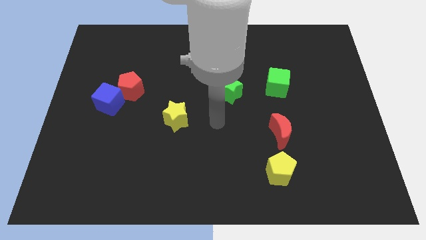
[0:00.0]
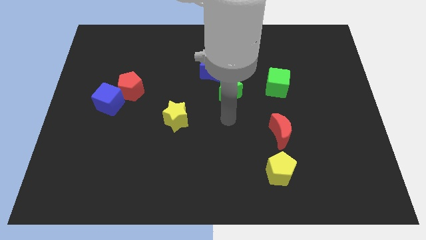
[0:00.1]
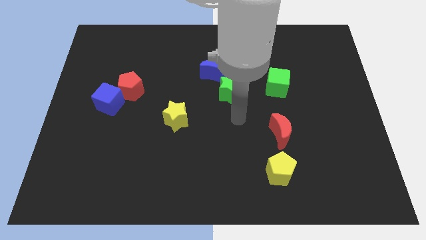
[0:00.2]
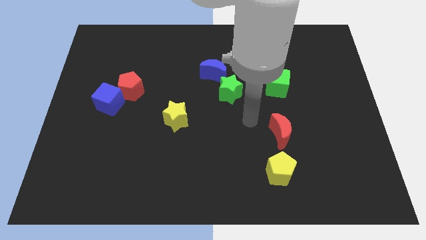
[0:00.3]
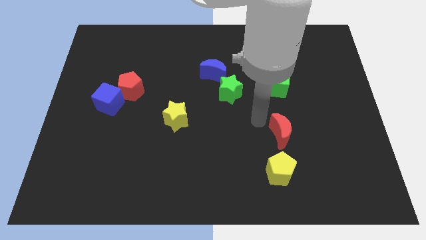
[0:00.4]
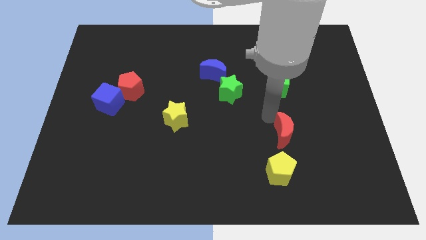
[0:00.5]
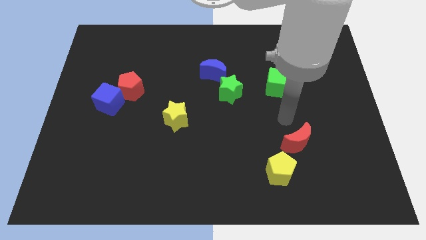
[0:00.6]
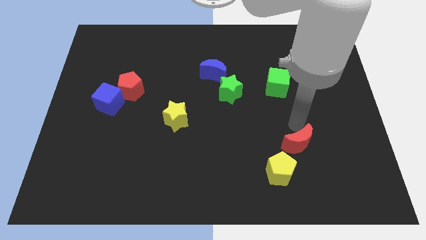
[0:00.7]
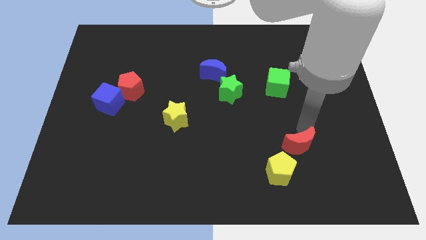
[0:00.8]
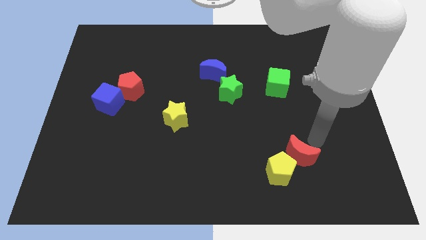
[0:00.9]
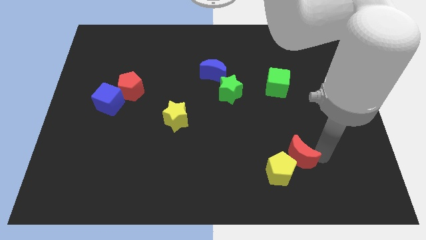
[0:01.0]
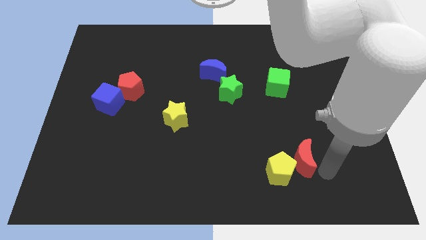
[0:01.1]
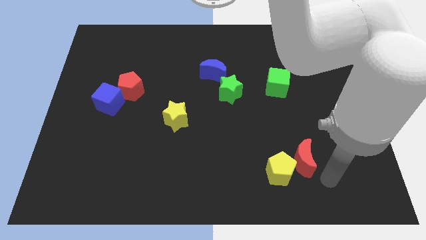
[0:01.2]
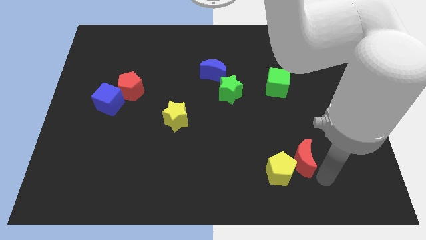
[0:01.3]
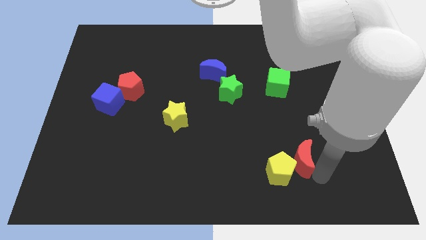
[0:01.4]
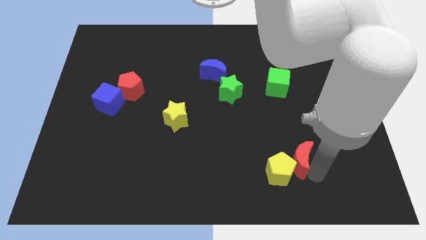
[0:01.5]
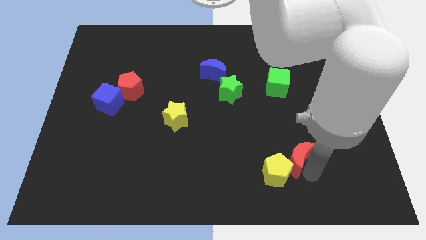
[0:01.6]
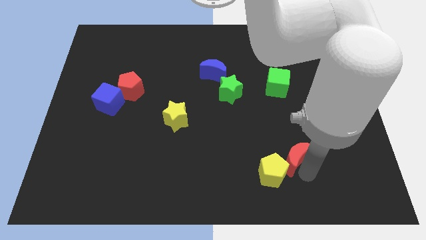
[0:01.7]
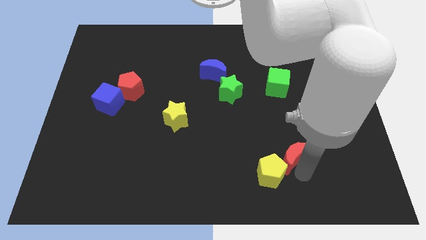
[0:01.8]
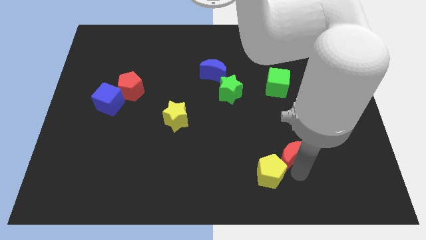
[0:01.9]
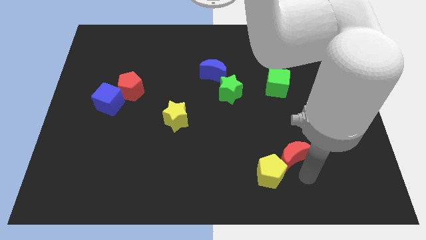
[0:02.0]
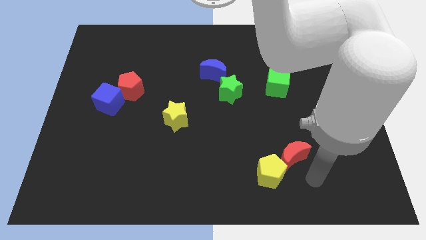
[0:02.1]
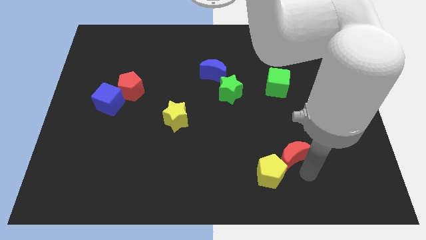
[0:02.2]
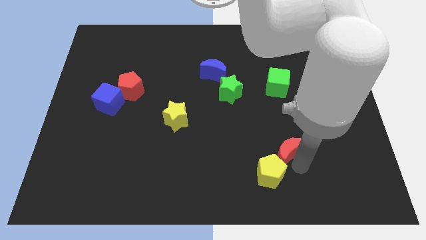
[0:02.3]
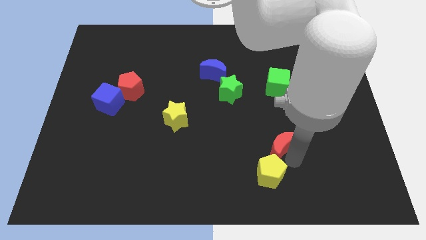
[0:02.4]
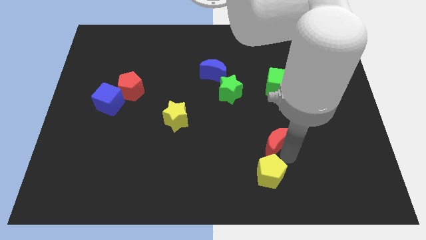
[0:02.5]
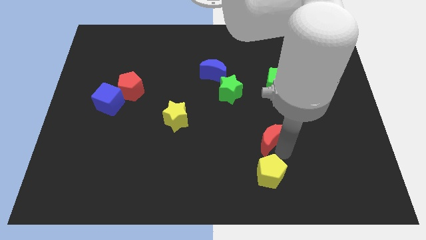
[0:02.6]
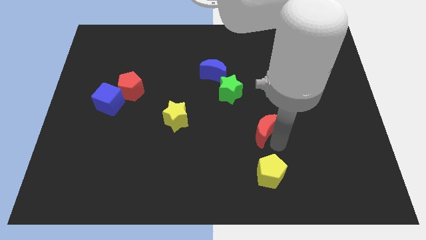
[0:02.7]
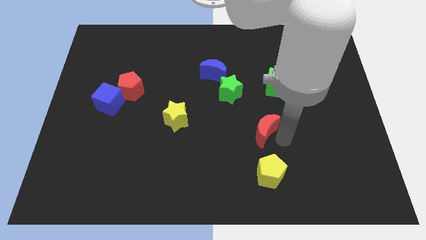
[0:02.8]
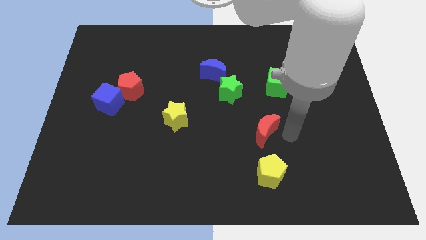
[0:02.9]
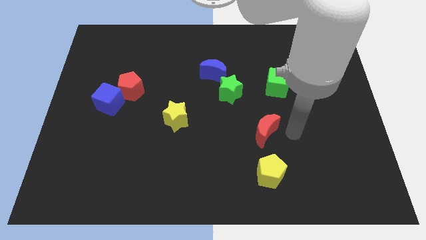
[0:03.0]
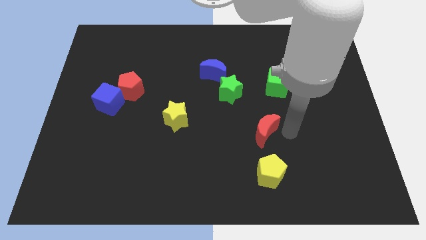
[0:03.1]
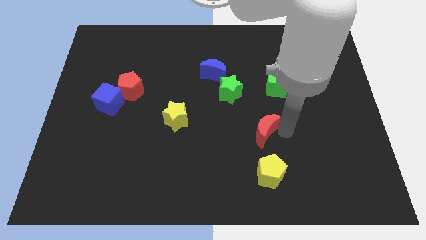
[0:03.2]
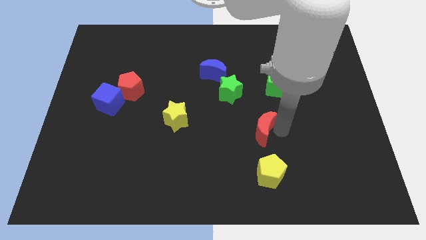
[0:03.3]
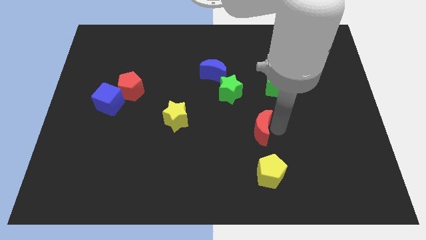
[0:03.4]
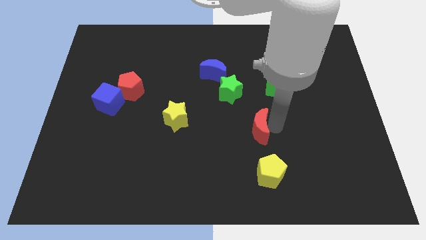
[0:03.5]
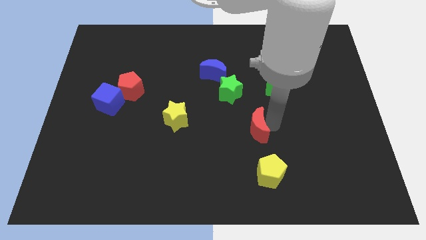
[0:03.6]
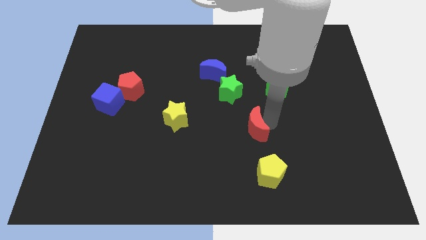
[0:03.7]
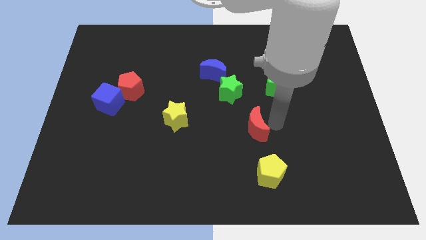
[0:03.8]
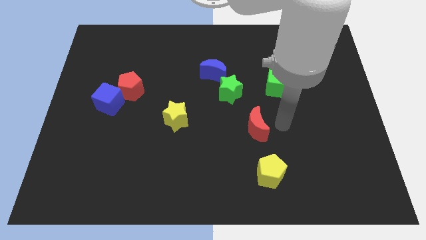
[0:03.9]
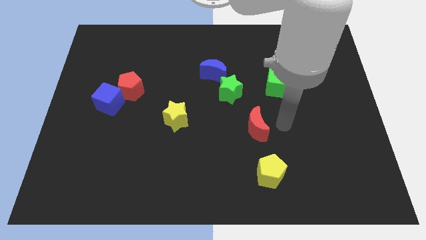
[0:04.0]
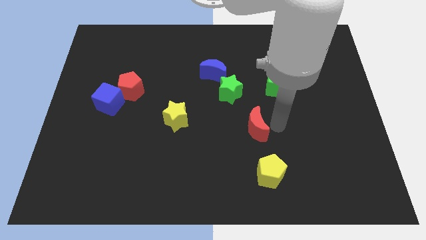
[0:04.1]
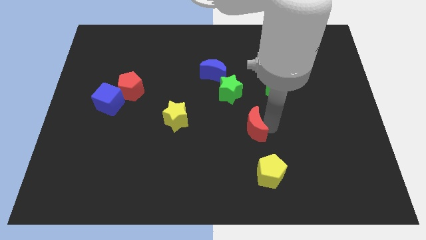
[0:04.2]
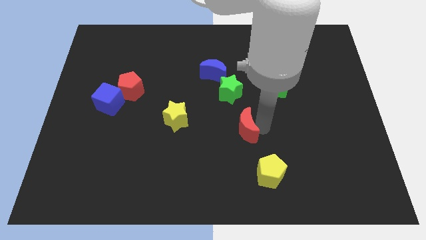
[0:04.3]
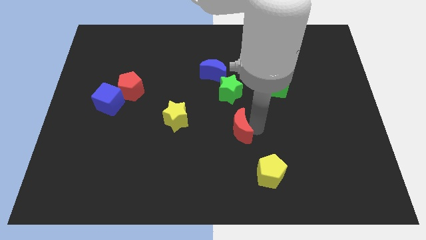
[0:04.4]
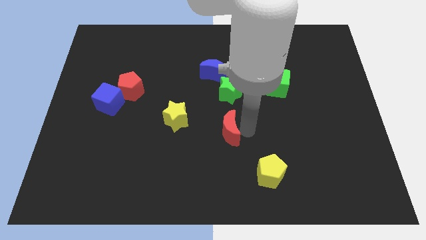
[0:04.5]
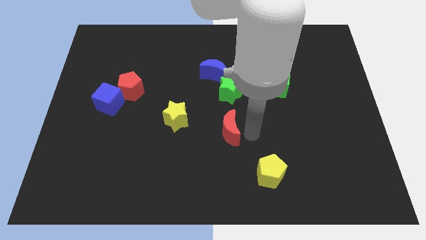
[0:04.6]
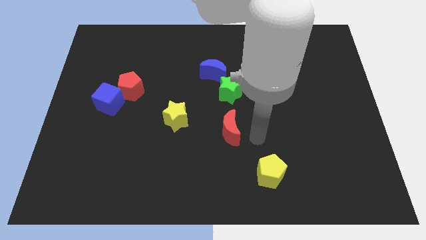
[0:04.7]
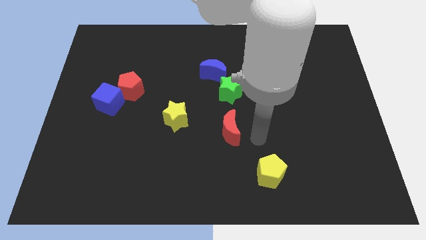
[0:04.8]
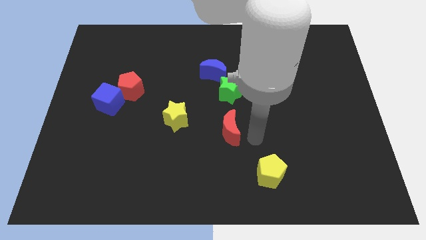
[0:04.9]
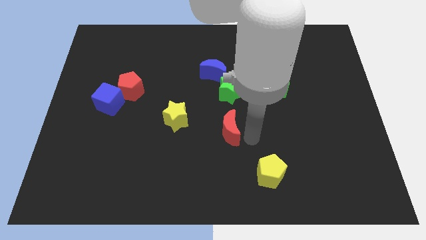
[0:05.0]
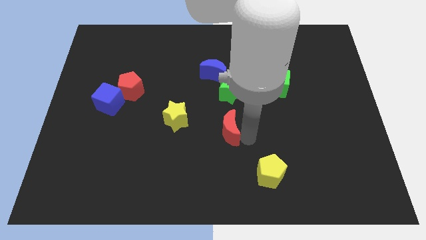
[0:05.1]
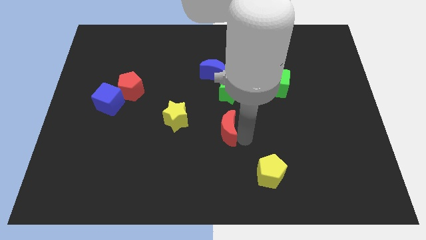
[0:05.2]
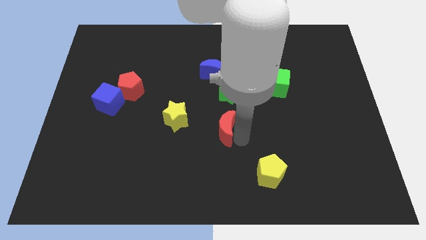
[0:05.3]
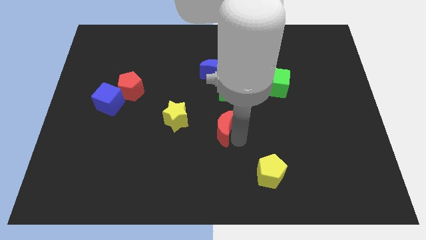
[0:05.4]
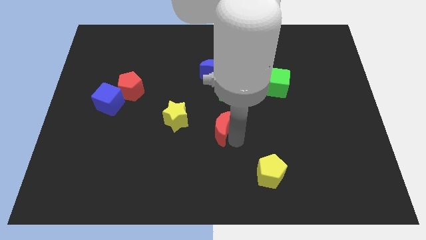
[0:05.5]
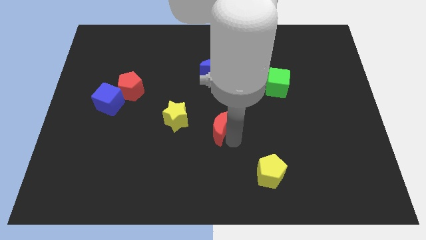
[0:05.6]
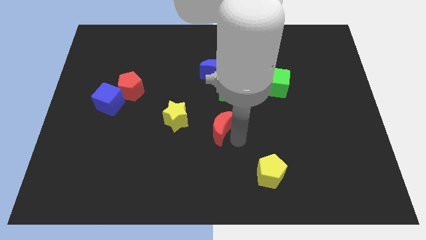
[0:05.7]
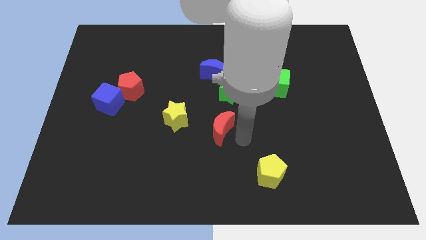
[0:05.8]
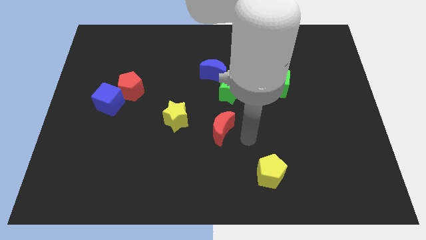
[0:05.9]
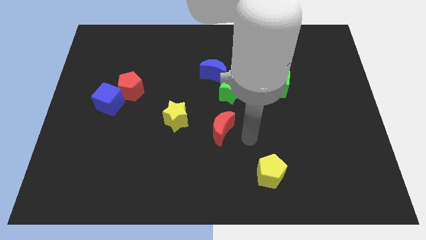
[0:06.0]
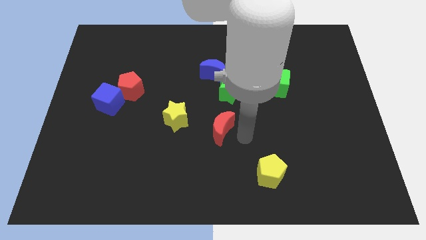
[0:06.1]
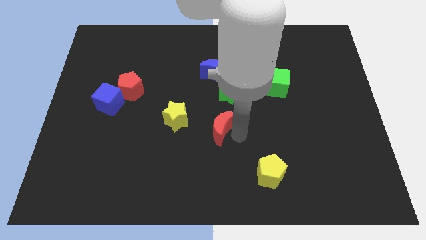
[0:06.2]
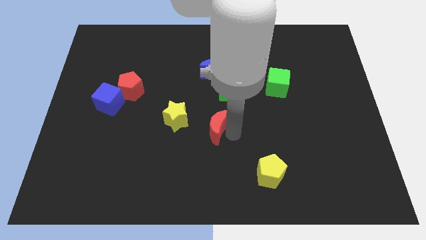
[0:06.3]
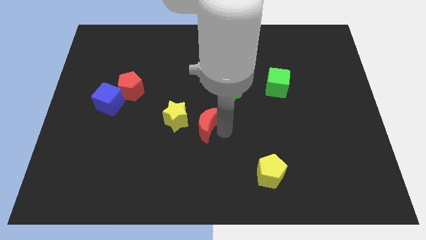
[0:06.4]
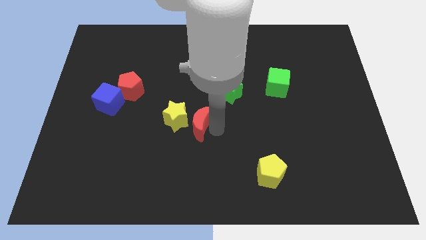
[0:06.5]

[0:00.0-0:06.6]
move the red moon to the yellow star

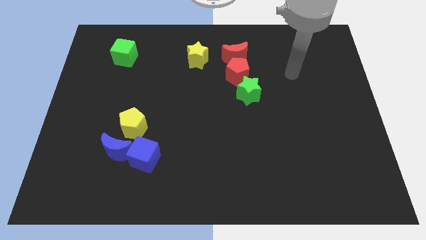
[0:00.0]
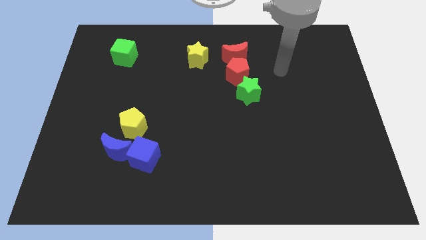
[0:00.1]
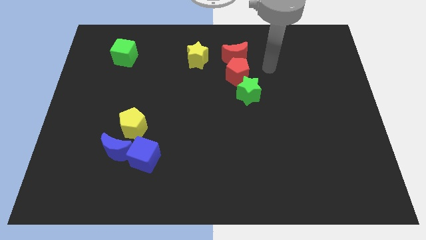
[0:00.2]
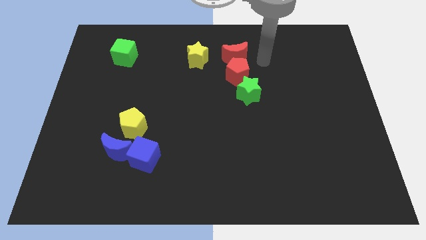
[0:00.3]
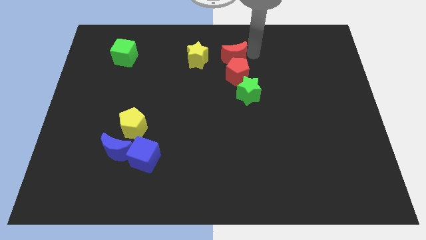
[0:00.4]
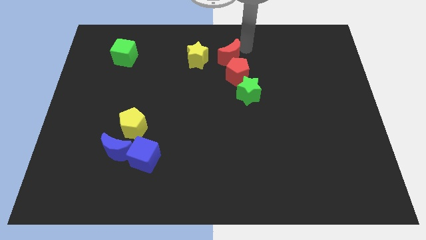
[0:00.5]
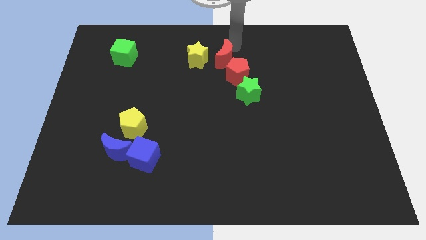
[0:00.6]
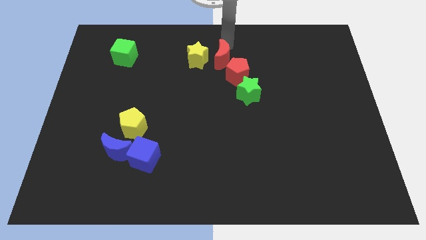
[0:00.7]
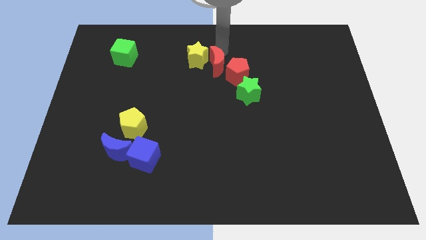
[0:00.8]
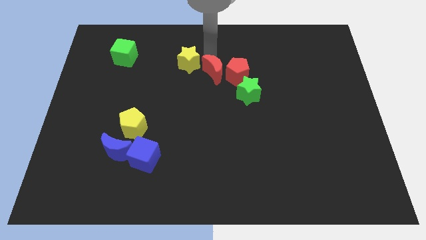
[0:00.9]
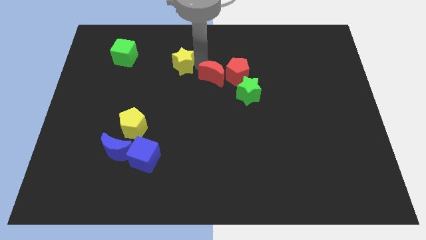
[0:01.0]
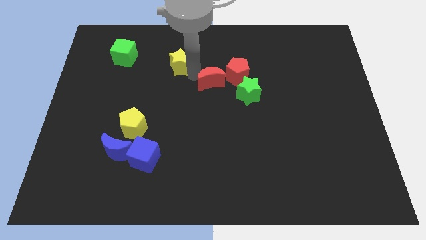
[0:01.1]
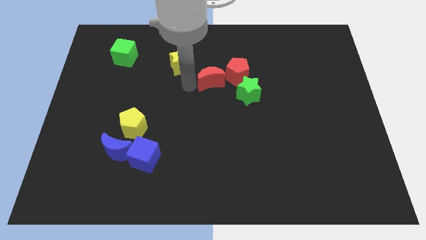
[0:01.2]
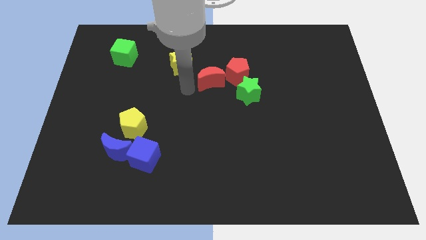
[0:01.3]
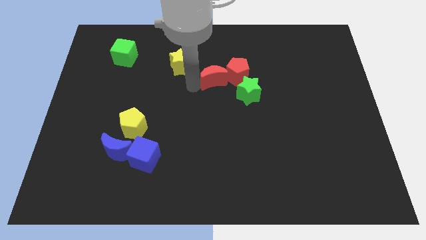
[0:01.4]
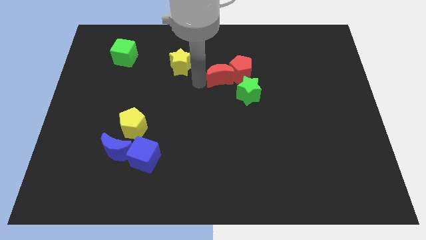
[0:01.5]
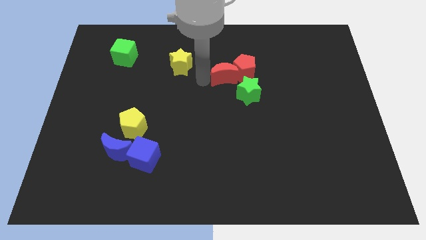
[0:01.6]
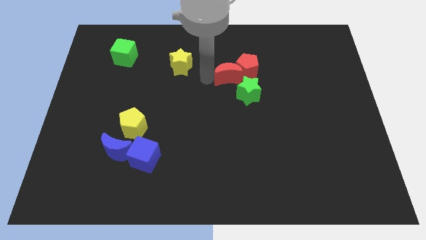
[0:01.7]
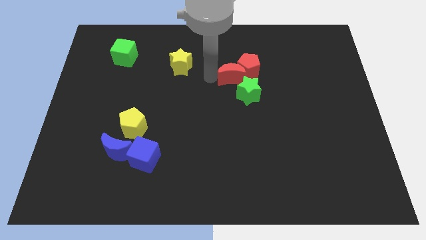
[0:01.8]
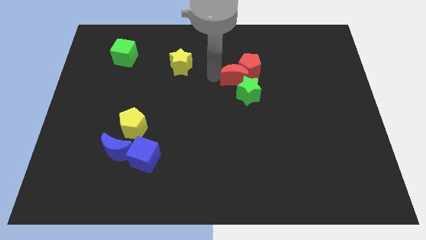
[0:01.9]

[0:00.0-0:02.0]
push the red moon close to the green star
